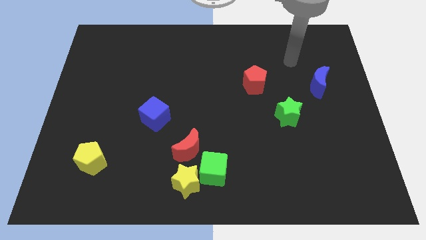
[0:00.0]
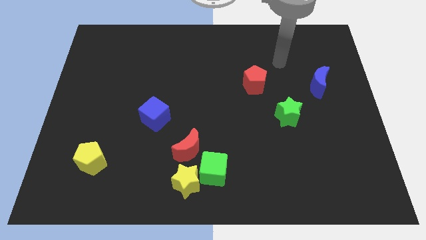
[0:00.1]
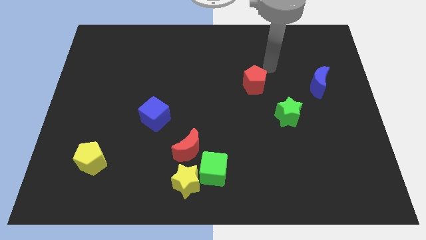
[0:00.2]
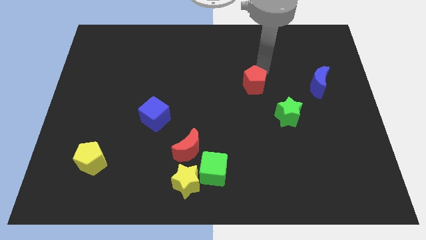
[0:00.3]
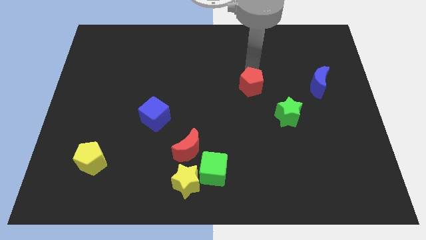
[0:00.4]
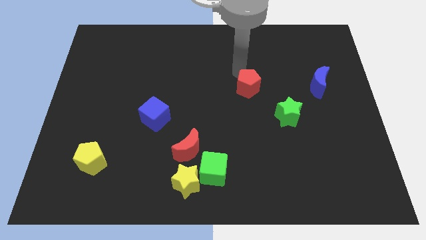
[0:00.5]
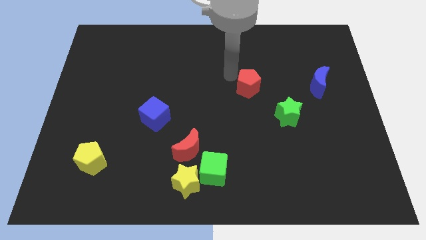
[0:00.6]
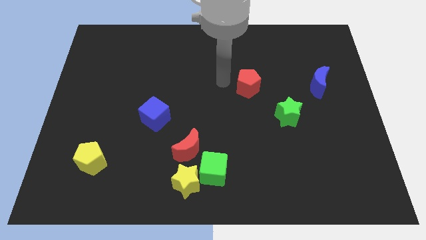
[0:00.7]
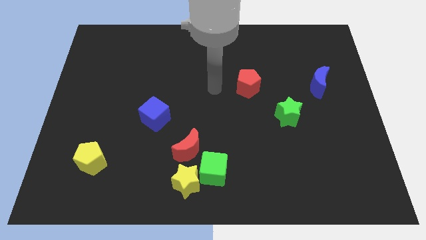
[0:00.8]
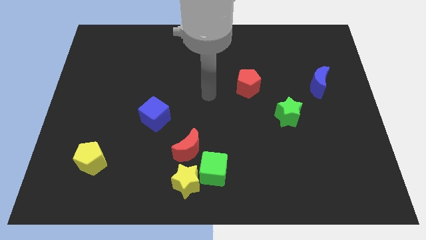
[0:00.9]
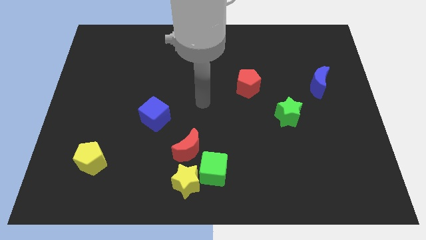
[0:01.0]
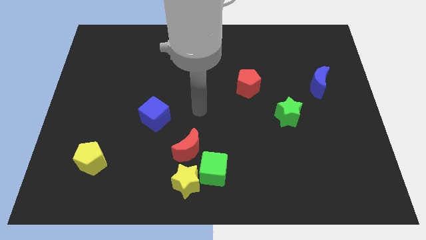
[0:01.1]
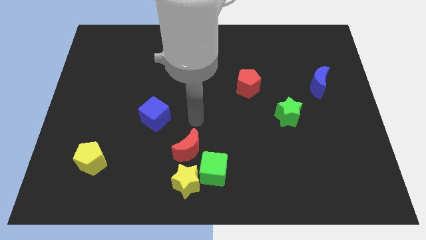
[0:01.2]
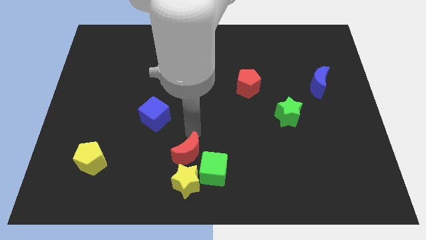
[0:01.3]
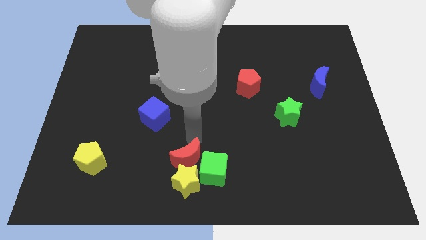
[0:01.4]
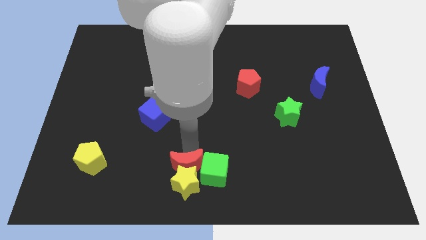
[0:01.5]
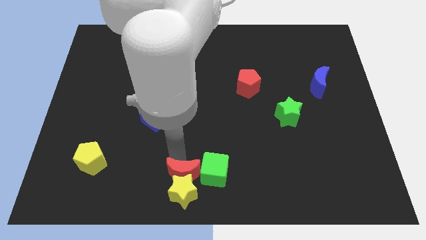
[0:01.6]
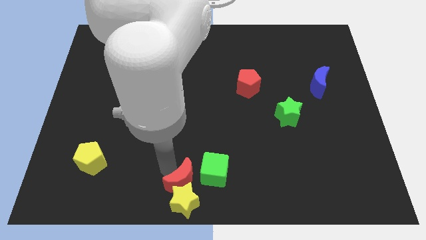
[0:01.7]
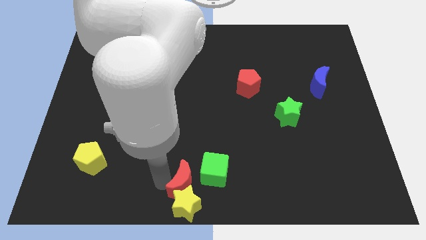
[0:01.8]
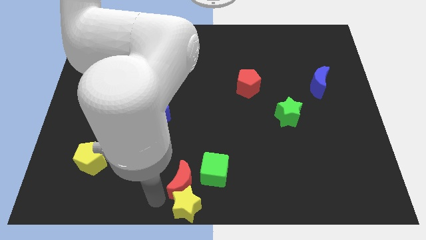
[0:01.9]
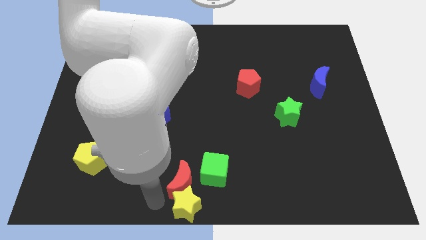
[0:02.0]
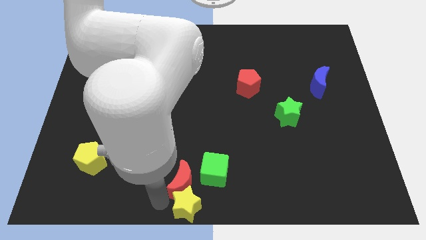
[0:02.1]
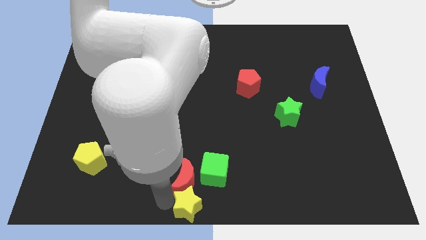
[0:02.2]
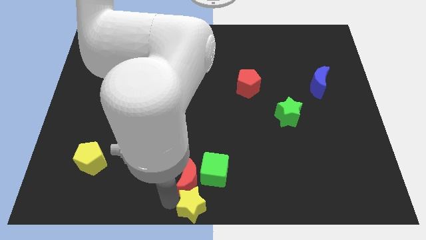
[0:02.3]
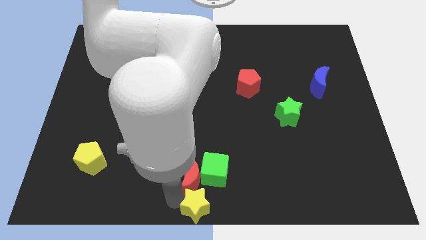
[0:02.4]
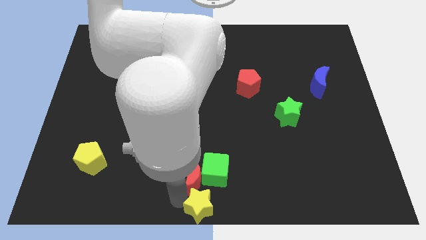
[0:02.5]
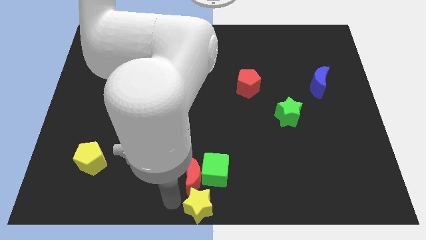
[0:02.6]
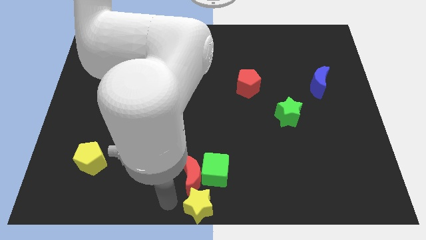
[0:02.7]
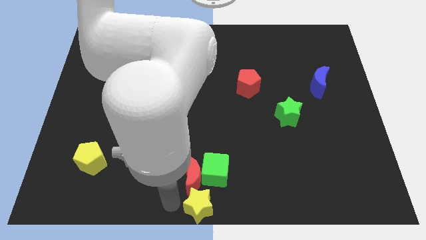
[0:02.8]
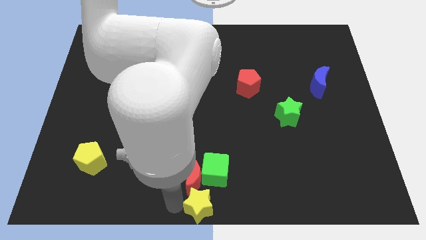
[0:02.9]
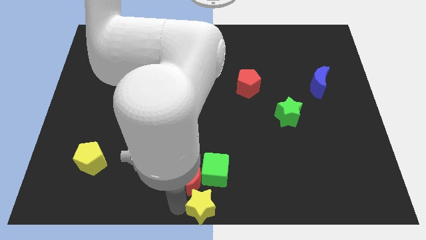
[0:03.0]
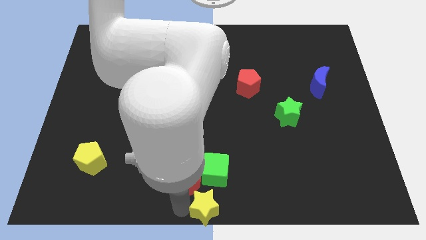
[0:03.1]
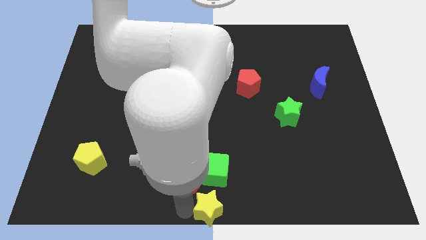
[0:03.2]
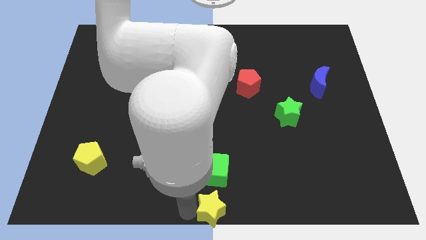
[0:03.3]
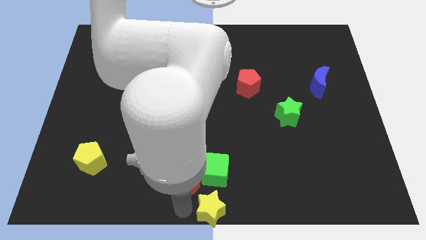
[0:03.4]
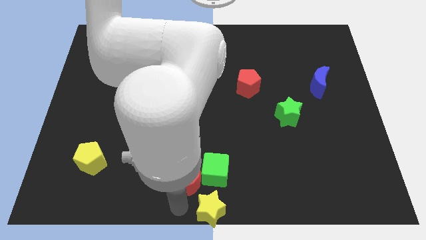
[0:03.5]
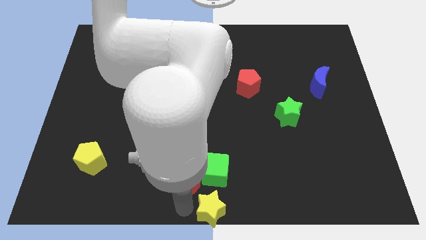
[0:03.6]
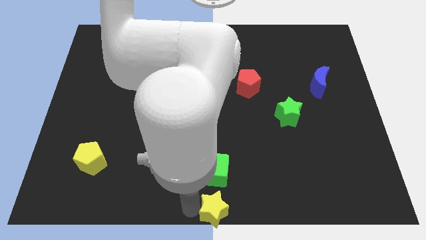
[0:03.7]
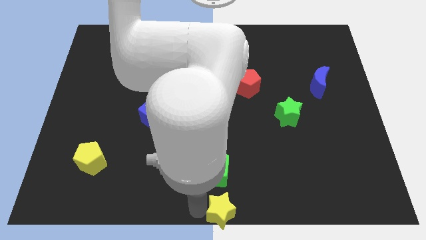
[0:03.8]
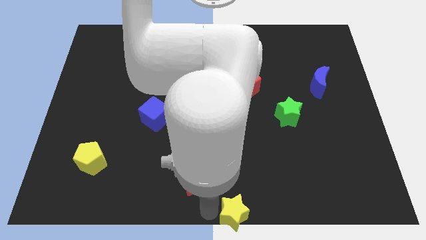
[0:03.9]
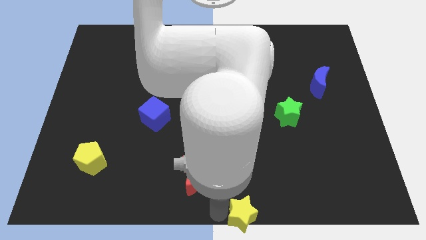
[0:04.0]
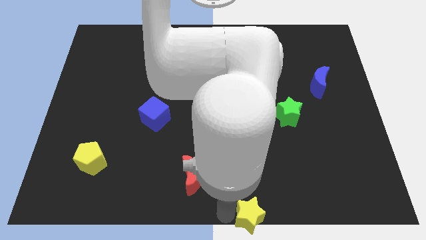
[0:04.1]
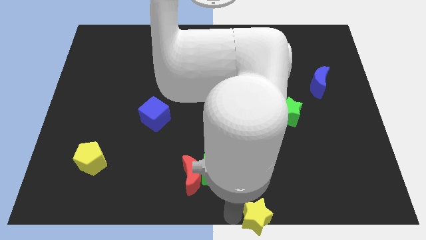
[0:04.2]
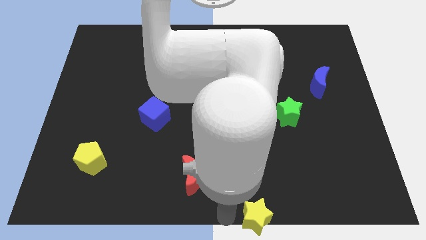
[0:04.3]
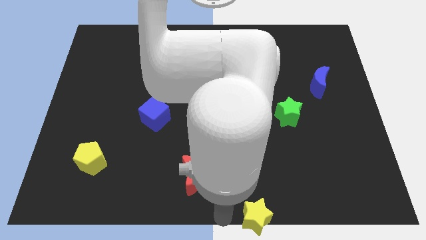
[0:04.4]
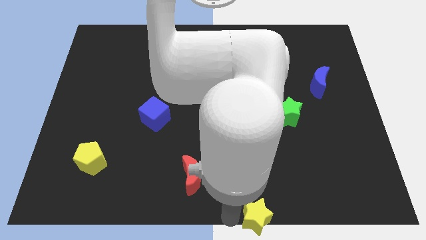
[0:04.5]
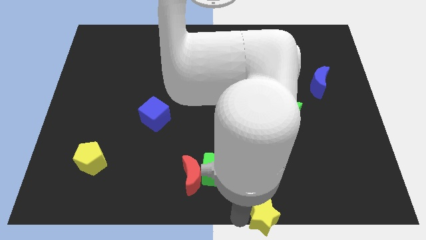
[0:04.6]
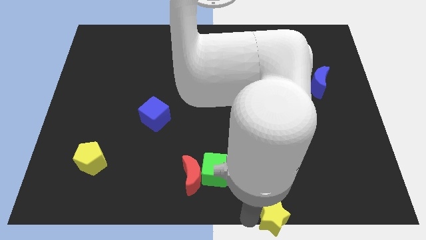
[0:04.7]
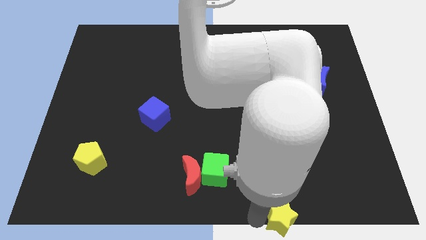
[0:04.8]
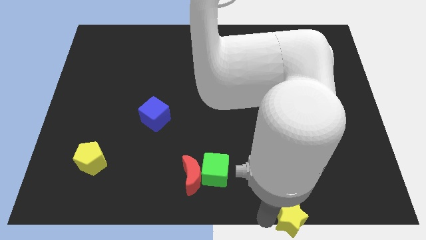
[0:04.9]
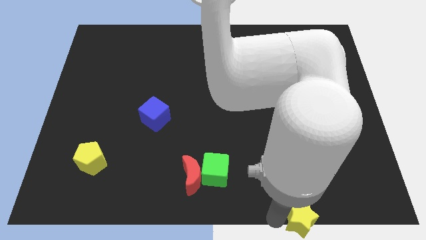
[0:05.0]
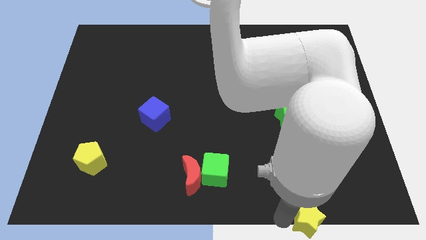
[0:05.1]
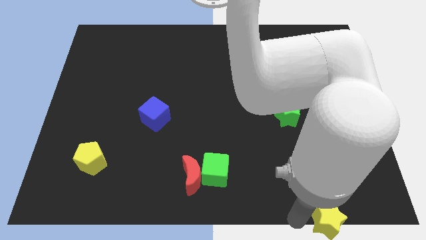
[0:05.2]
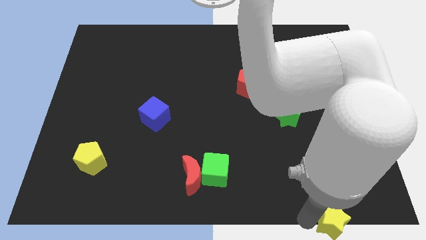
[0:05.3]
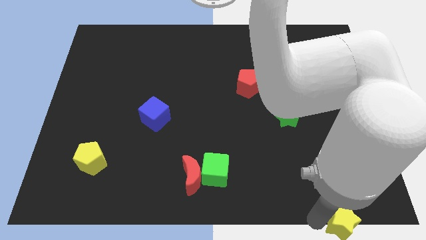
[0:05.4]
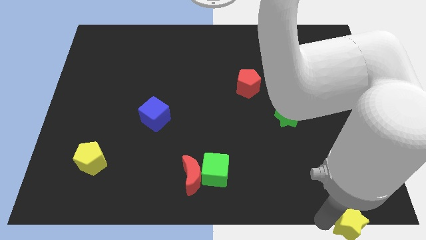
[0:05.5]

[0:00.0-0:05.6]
move the yellow star to the bottom right of the board
